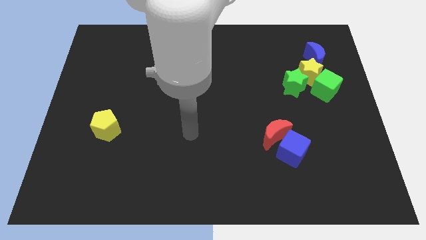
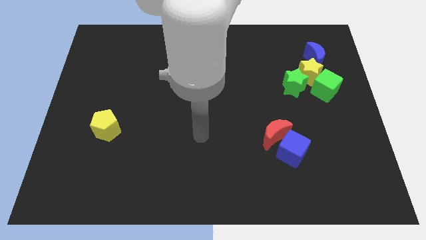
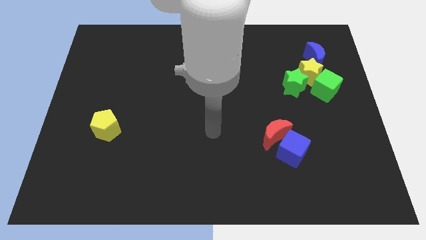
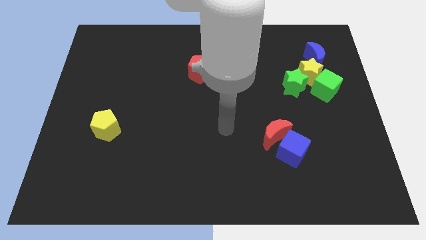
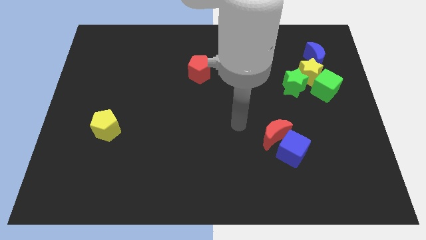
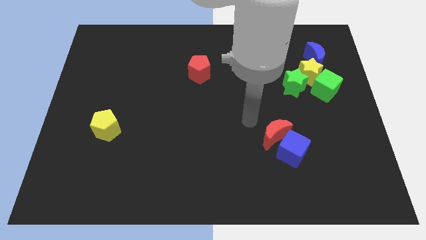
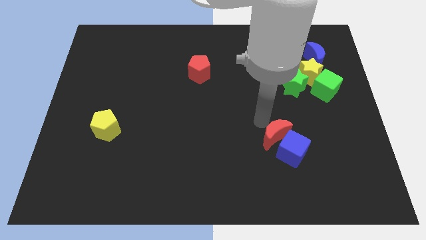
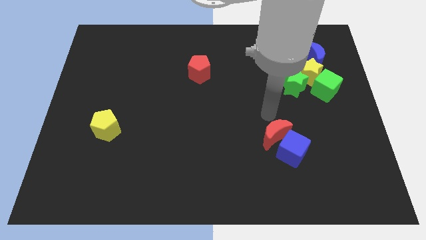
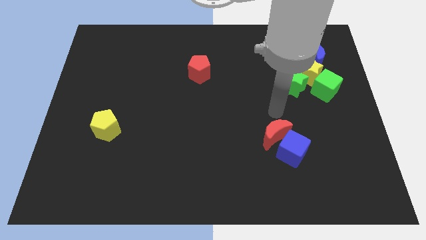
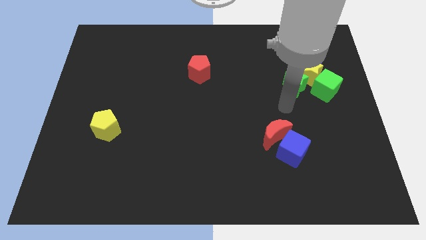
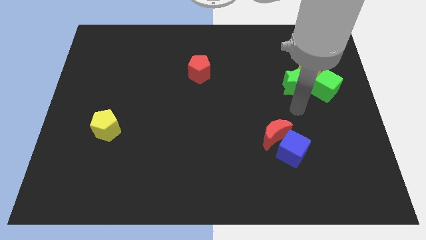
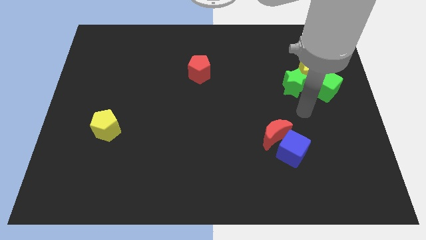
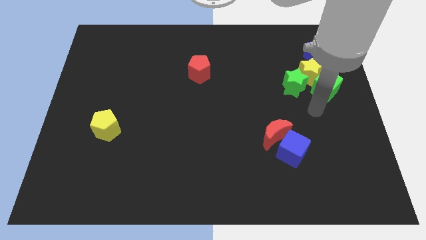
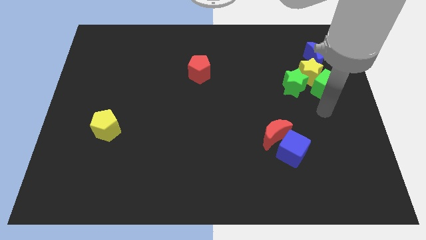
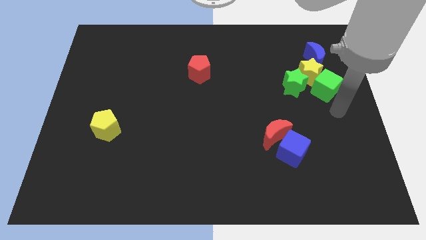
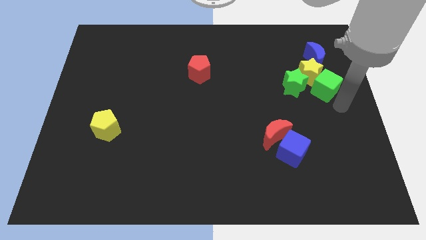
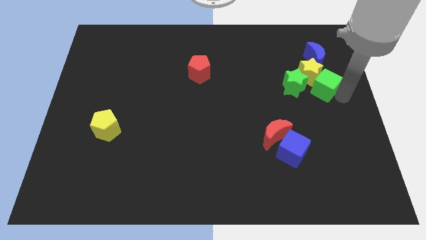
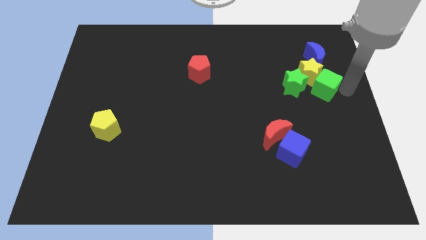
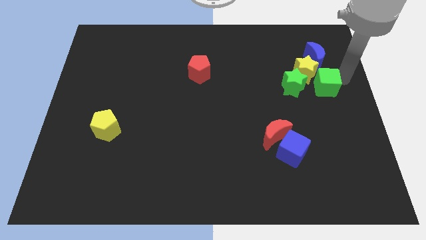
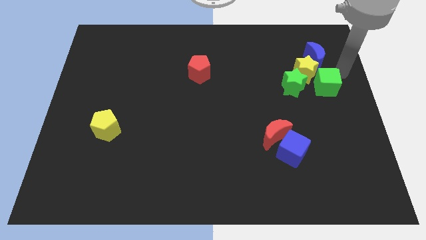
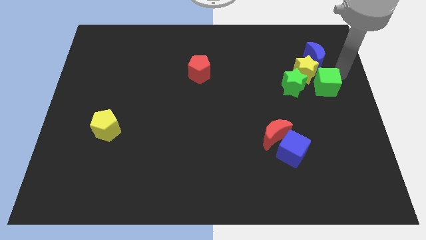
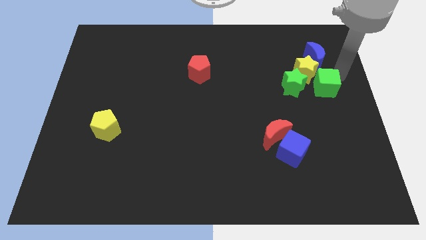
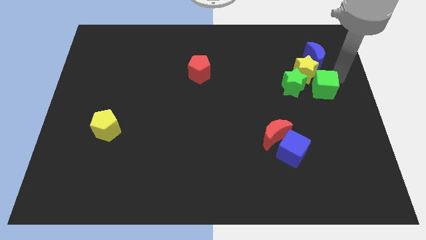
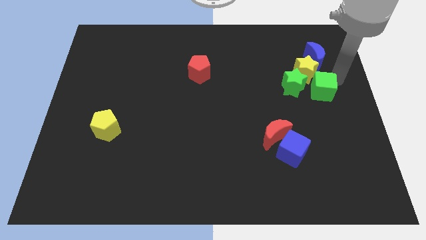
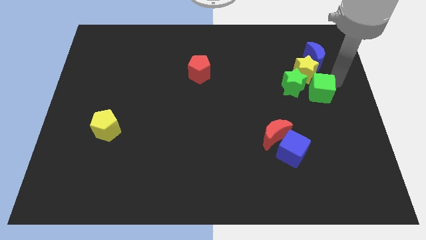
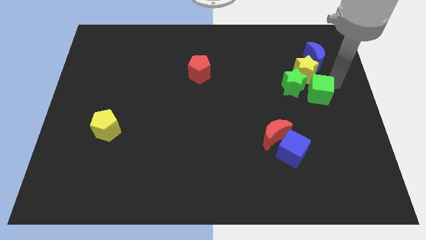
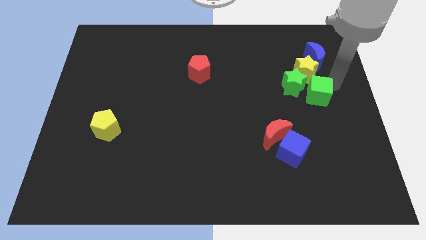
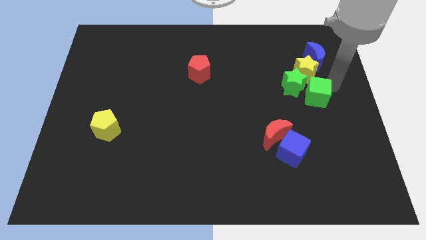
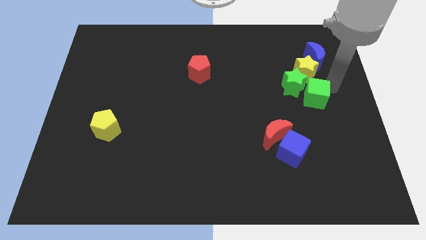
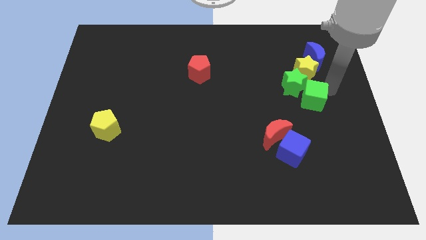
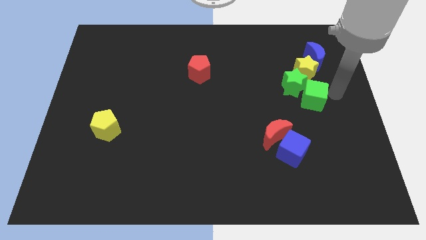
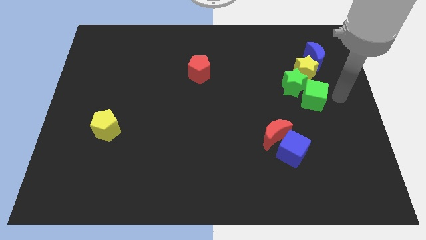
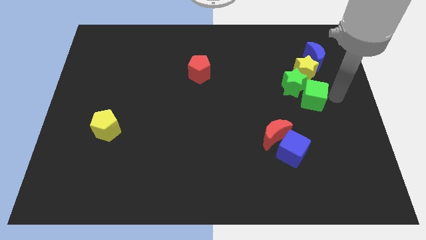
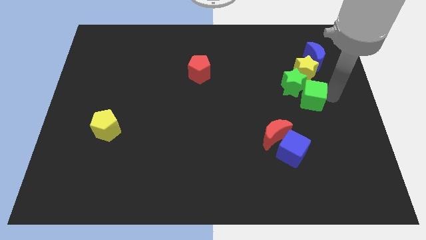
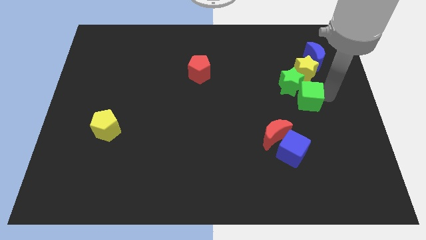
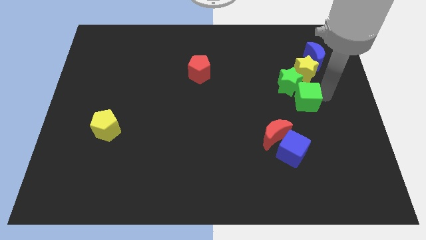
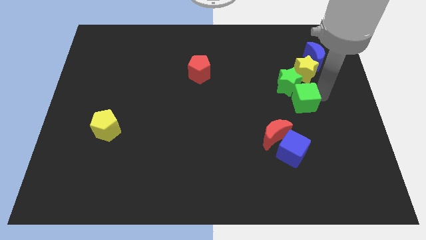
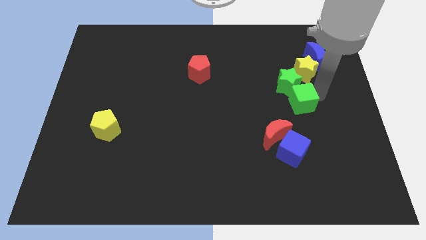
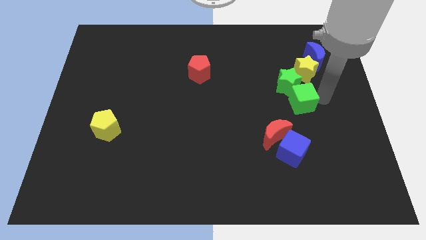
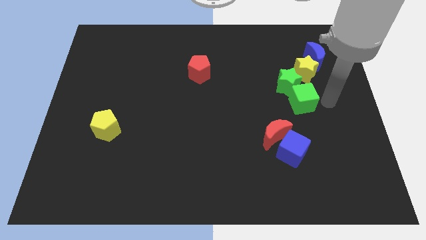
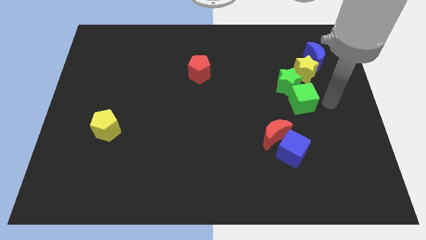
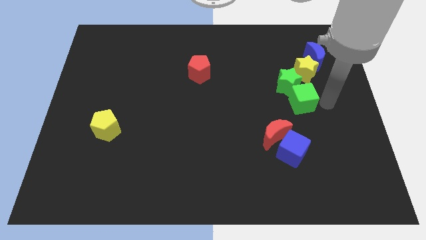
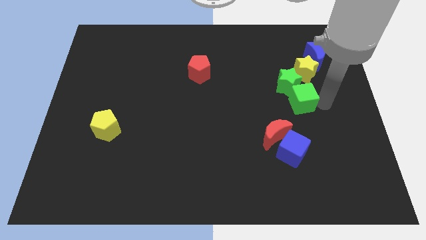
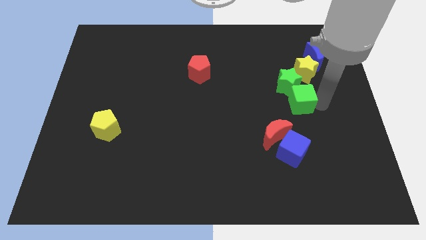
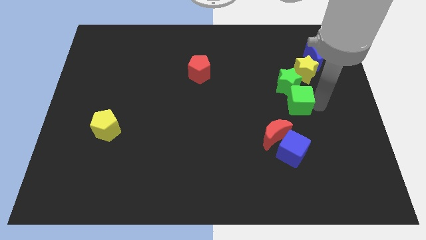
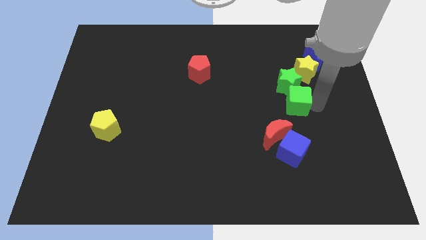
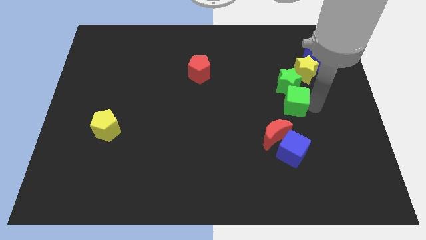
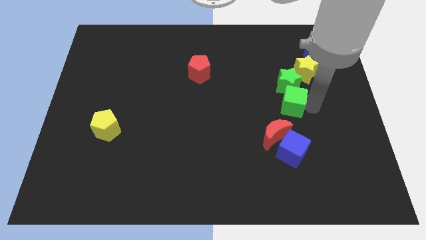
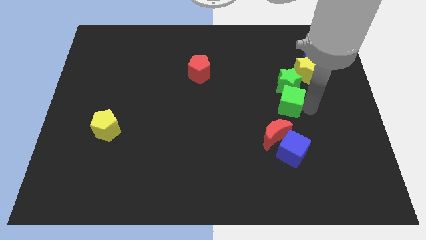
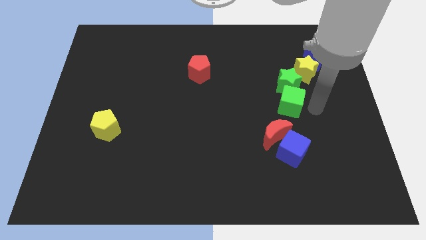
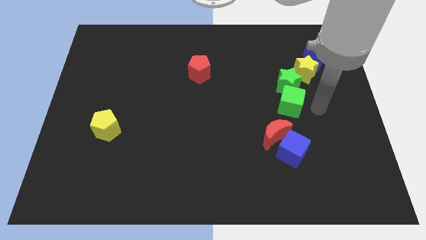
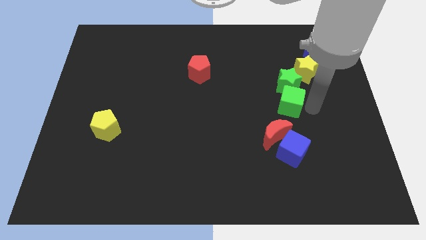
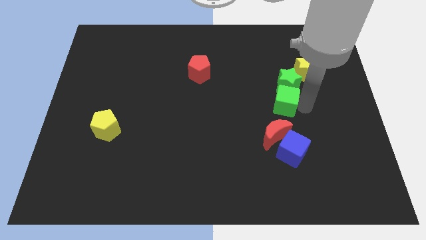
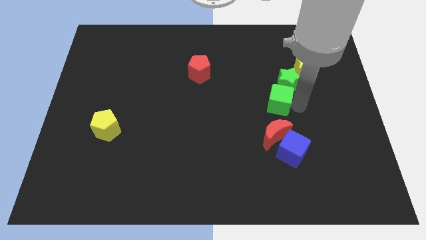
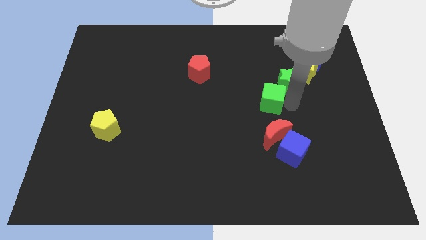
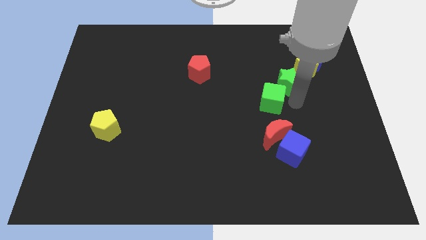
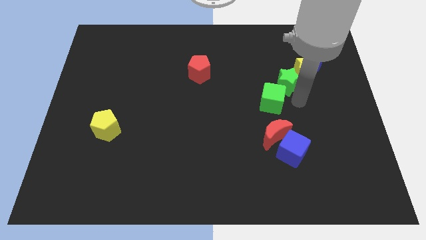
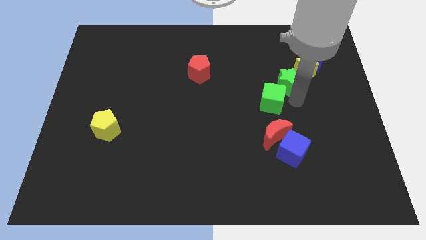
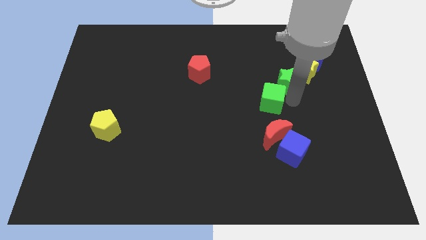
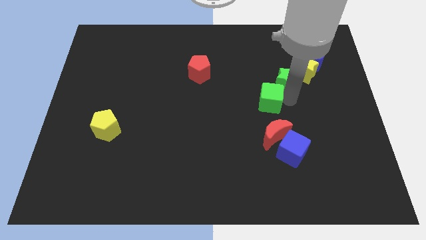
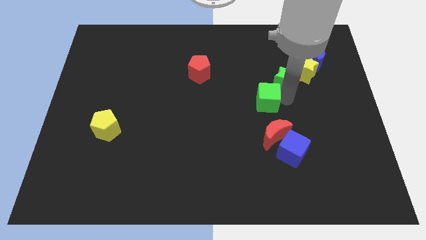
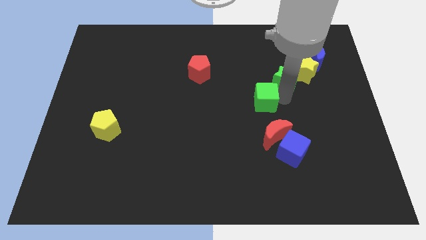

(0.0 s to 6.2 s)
put the green cube to the center of the board
